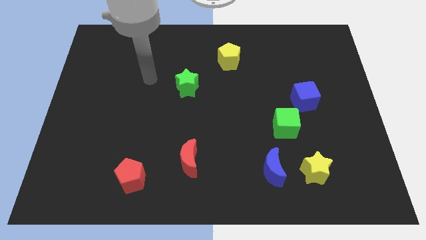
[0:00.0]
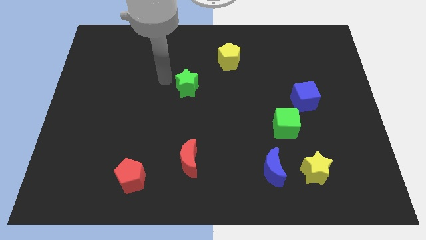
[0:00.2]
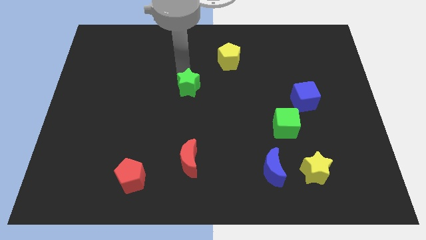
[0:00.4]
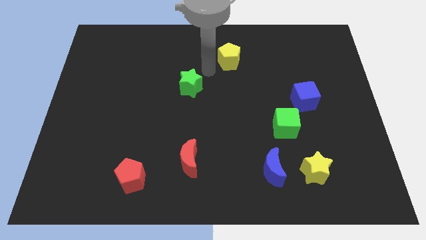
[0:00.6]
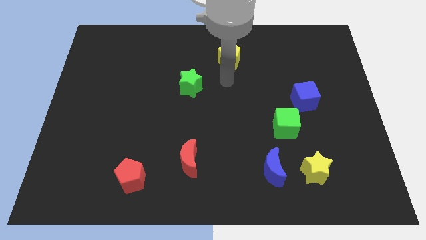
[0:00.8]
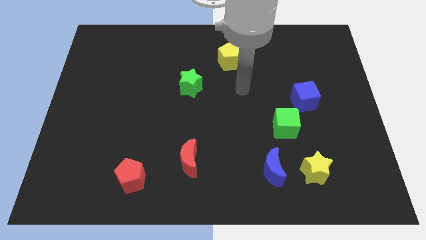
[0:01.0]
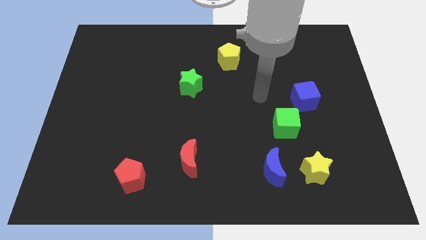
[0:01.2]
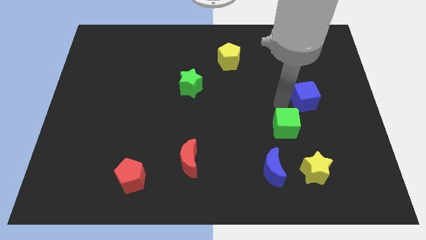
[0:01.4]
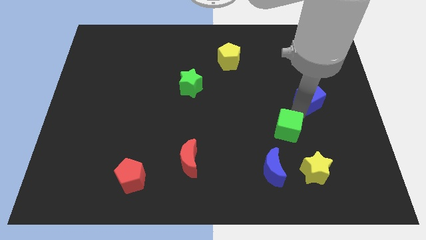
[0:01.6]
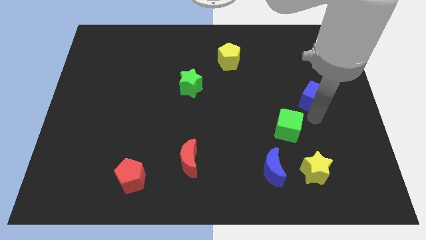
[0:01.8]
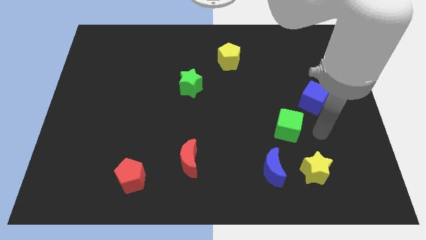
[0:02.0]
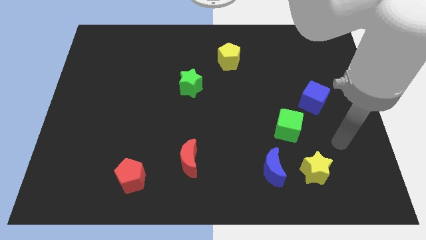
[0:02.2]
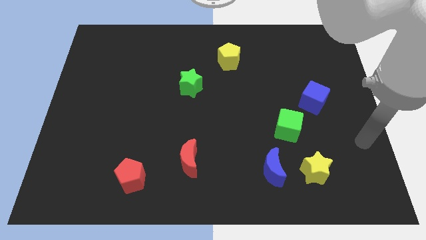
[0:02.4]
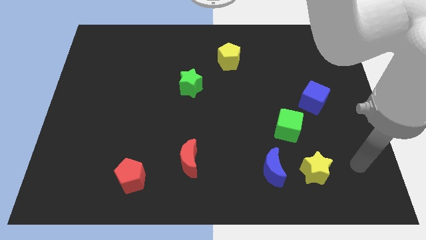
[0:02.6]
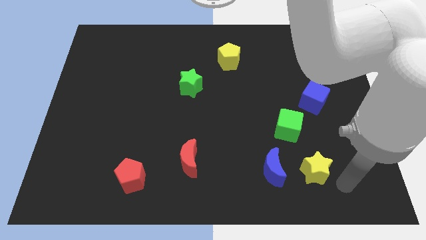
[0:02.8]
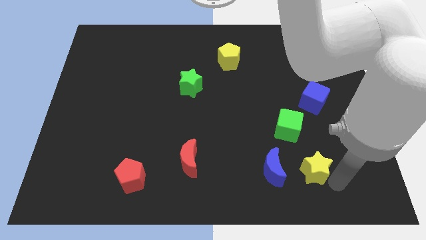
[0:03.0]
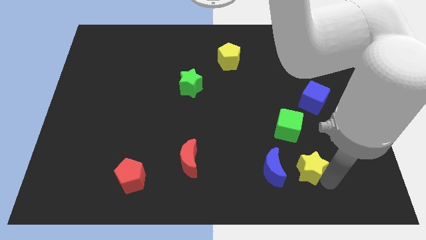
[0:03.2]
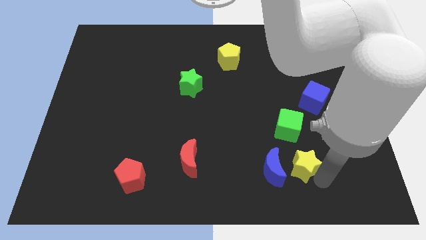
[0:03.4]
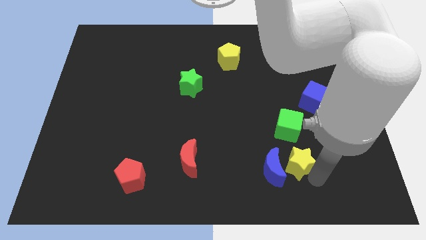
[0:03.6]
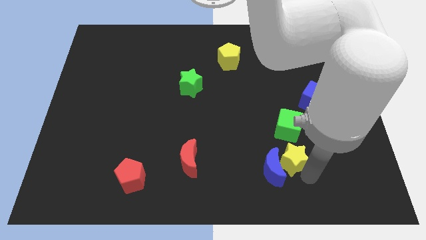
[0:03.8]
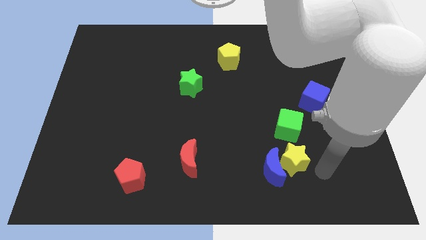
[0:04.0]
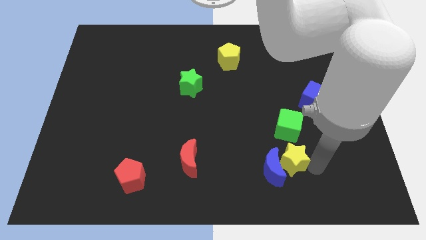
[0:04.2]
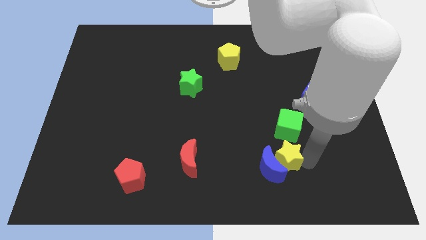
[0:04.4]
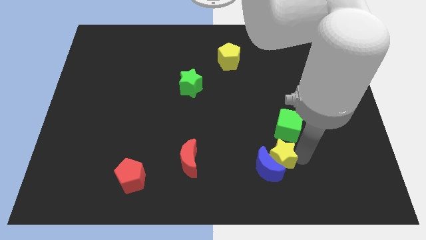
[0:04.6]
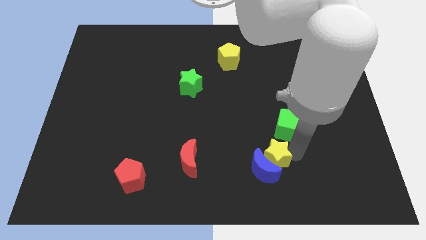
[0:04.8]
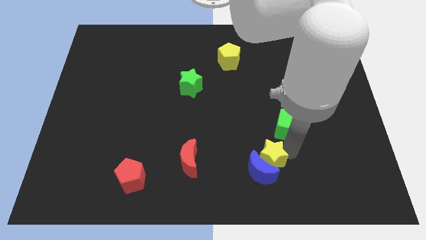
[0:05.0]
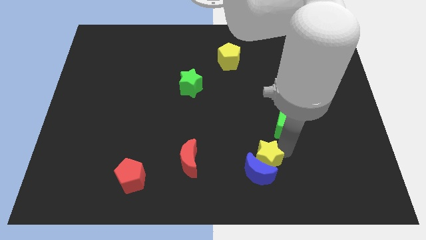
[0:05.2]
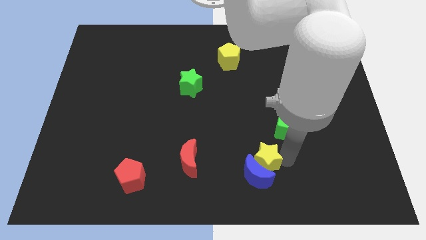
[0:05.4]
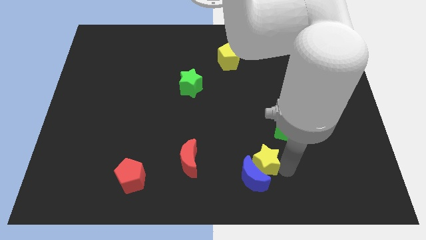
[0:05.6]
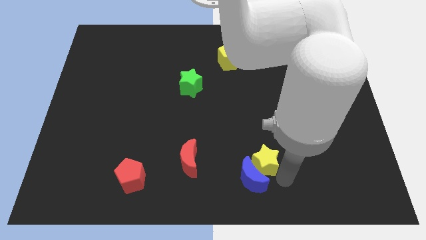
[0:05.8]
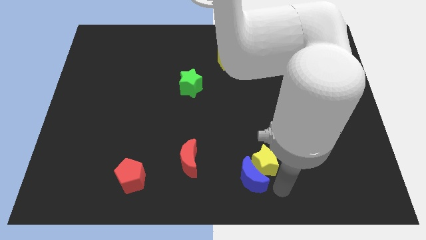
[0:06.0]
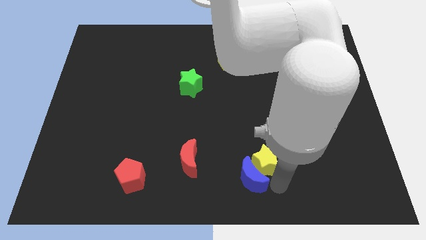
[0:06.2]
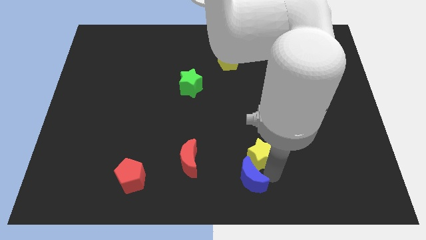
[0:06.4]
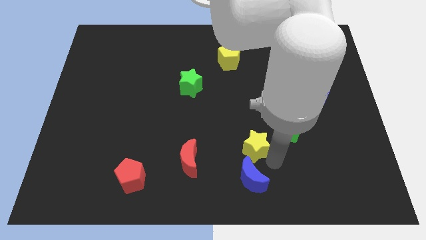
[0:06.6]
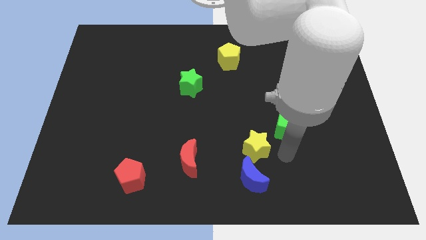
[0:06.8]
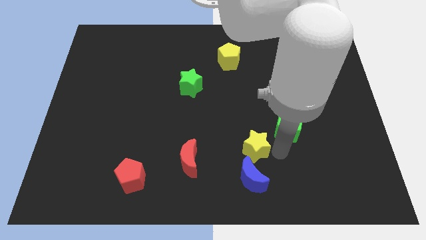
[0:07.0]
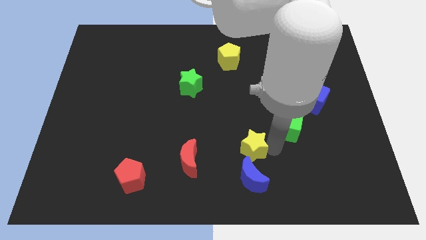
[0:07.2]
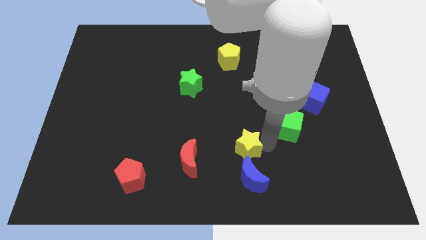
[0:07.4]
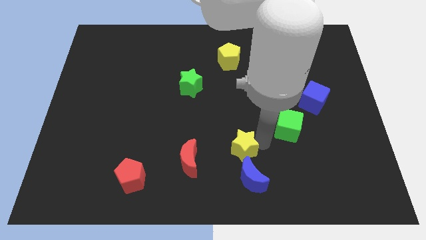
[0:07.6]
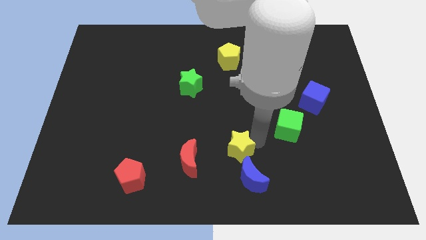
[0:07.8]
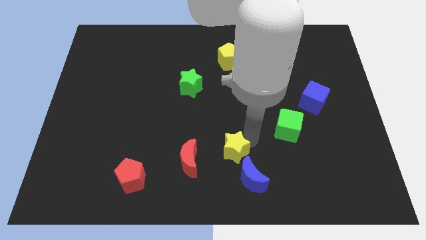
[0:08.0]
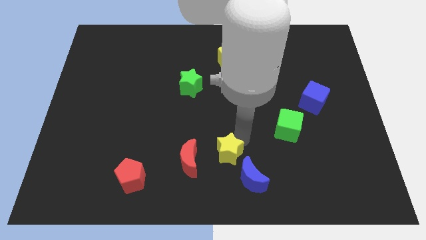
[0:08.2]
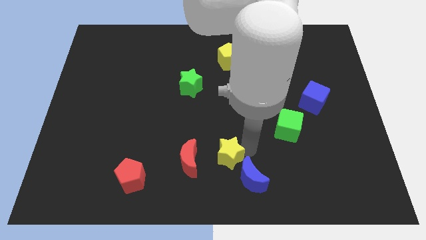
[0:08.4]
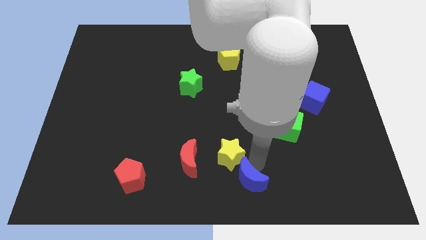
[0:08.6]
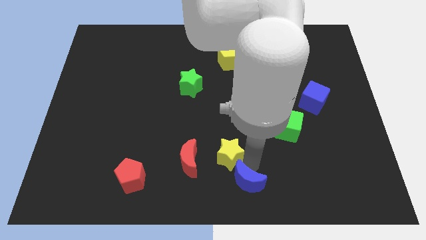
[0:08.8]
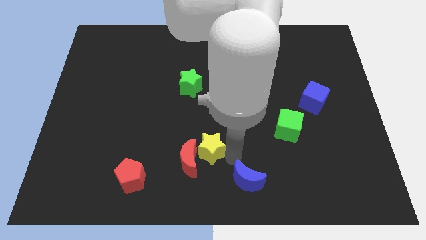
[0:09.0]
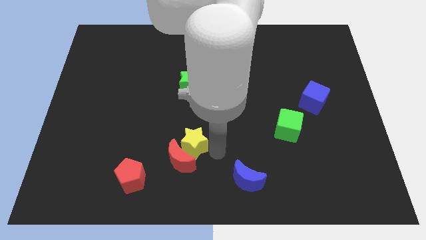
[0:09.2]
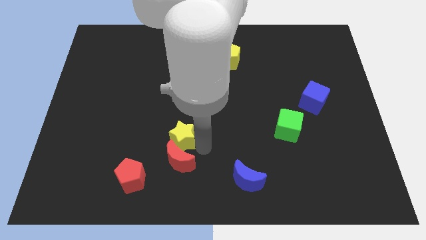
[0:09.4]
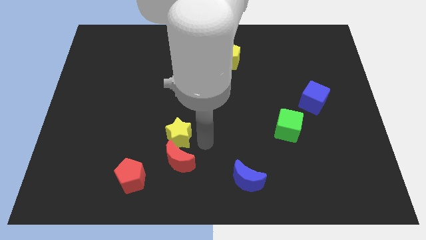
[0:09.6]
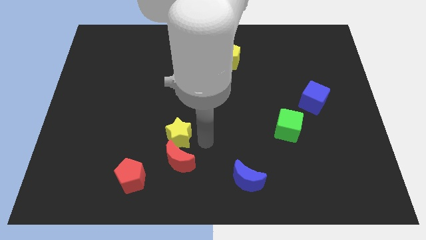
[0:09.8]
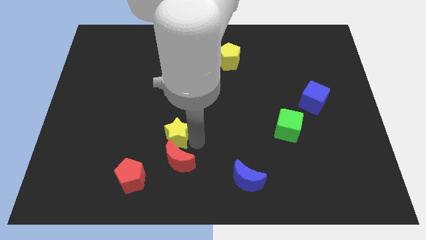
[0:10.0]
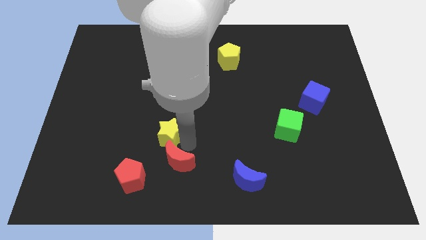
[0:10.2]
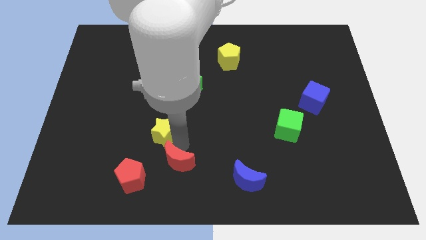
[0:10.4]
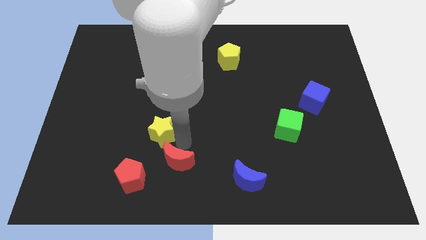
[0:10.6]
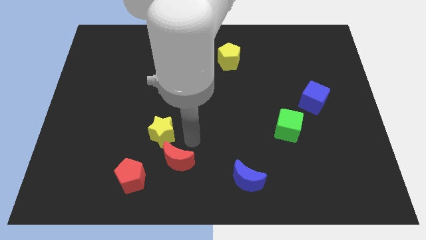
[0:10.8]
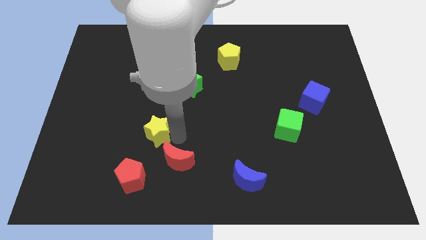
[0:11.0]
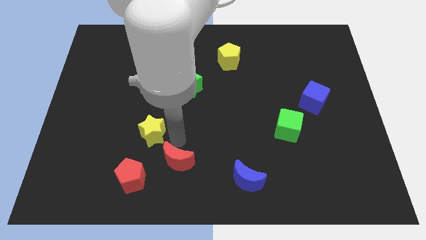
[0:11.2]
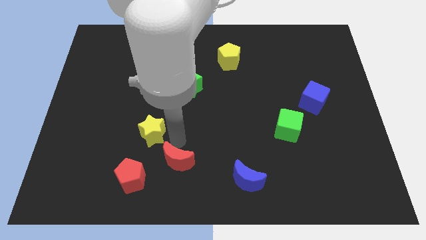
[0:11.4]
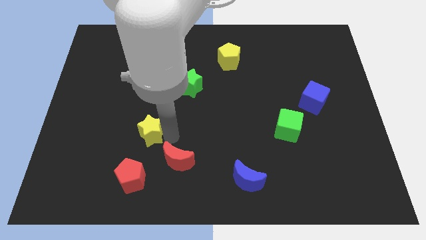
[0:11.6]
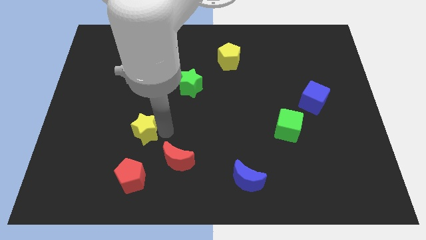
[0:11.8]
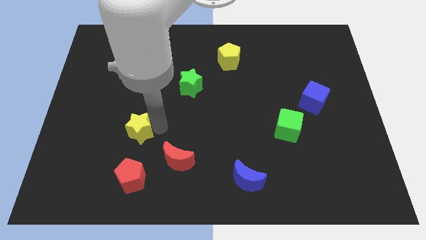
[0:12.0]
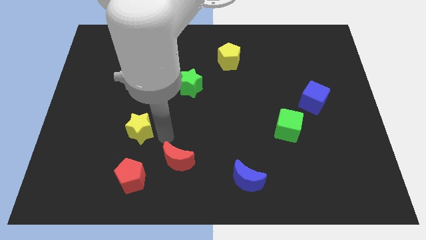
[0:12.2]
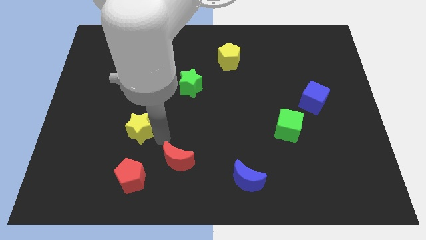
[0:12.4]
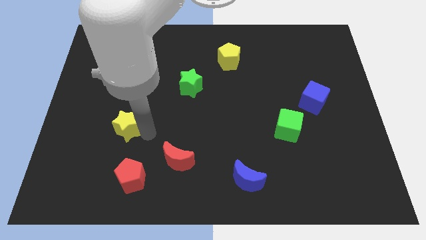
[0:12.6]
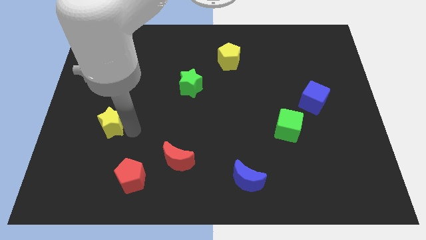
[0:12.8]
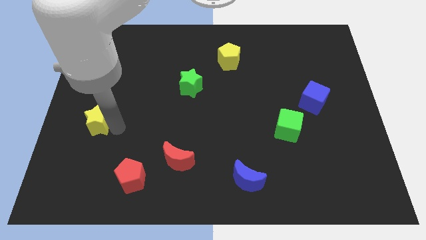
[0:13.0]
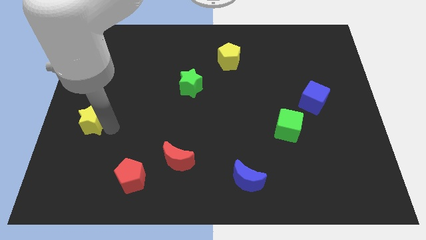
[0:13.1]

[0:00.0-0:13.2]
slide the yellow star to the center left
